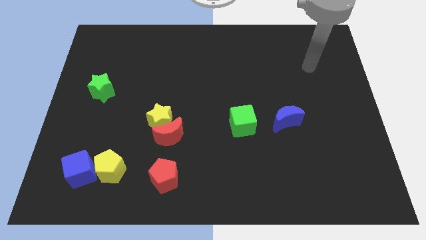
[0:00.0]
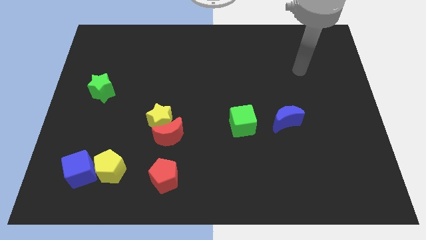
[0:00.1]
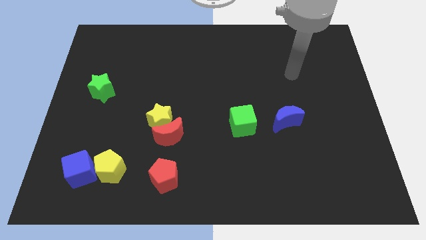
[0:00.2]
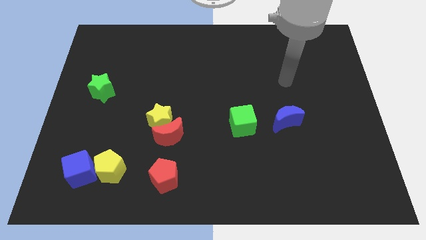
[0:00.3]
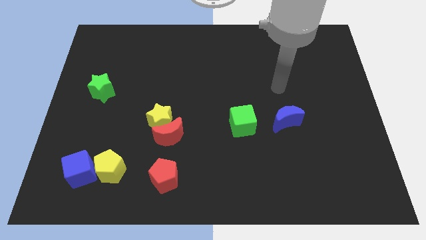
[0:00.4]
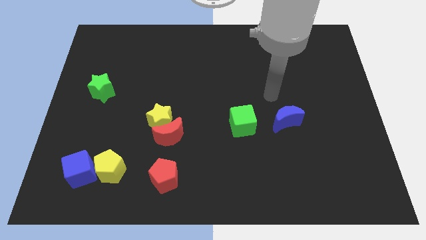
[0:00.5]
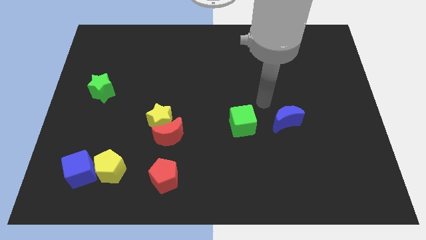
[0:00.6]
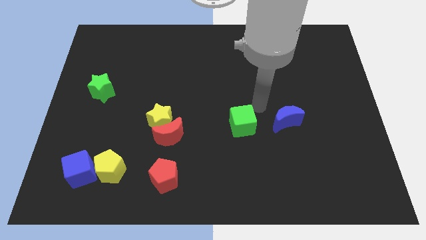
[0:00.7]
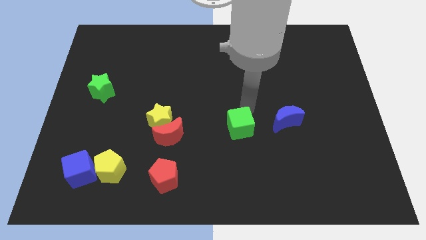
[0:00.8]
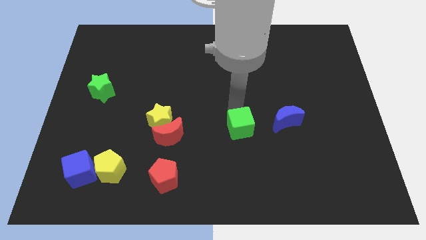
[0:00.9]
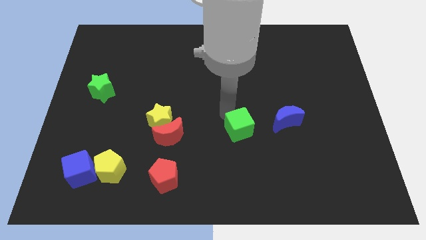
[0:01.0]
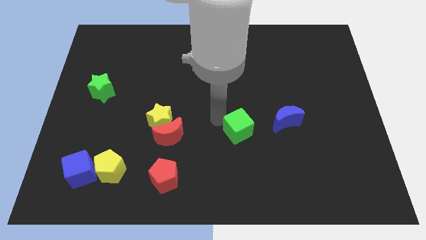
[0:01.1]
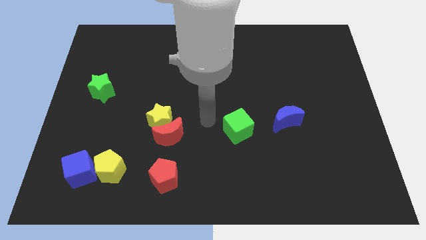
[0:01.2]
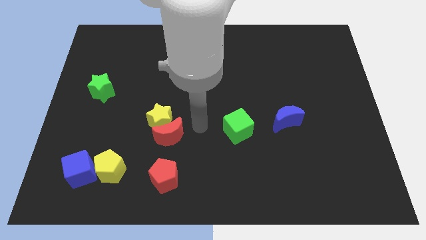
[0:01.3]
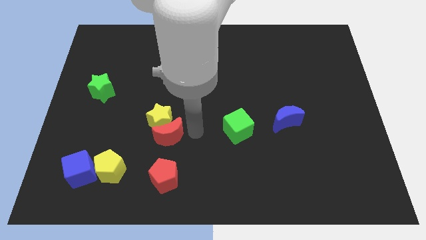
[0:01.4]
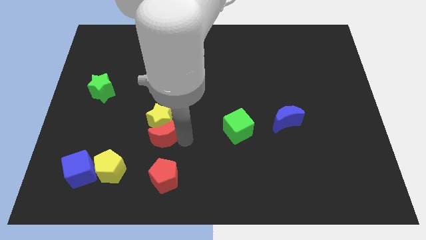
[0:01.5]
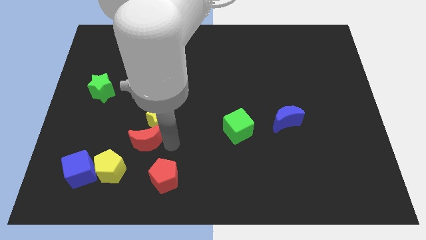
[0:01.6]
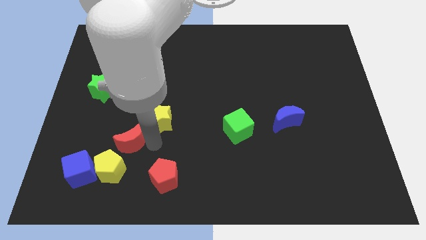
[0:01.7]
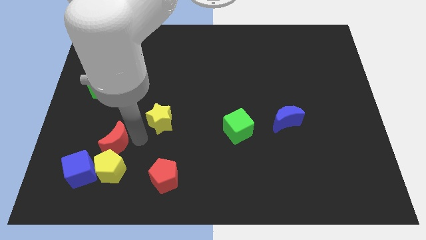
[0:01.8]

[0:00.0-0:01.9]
move the yellow star away from the red moon

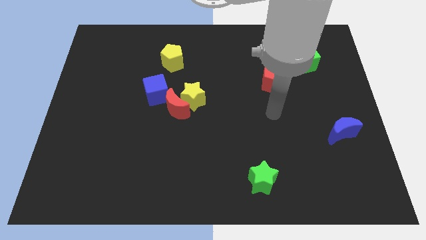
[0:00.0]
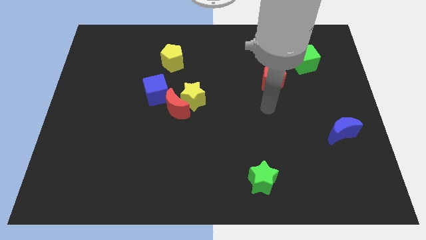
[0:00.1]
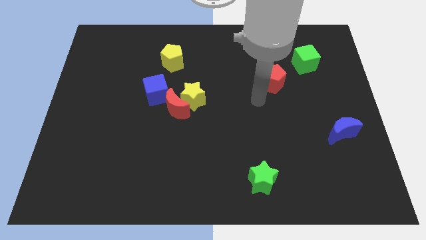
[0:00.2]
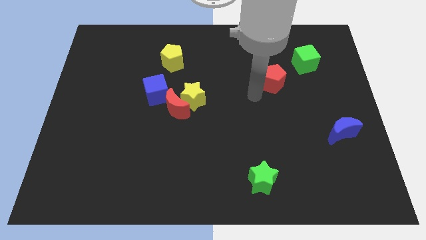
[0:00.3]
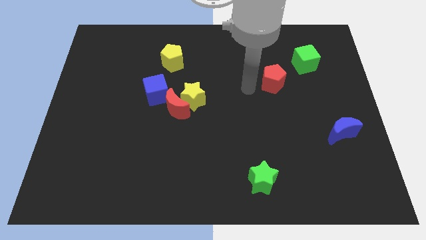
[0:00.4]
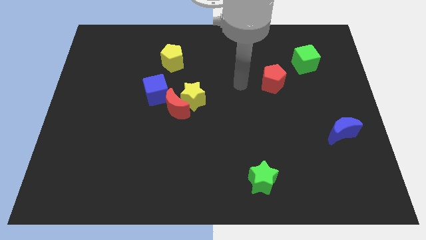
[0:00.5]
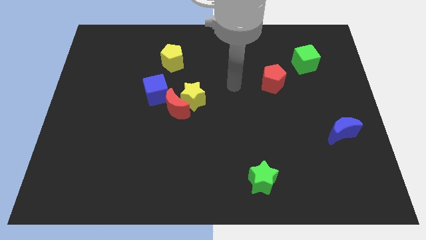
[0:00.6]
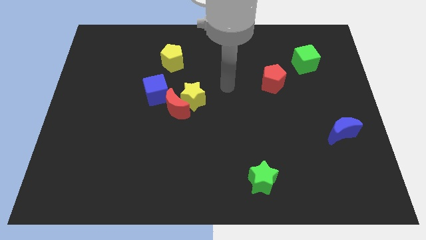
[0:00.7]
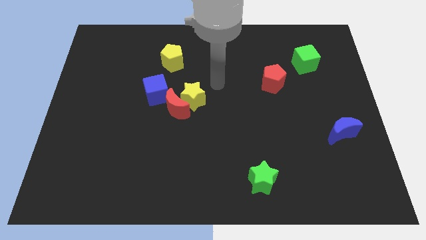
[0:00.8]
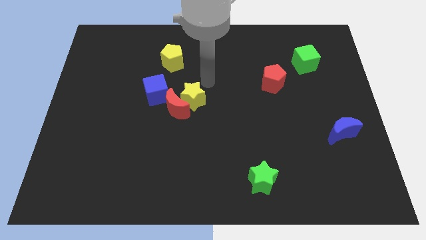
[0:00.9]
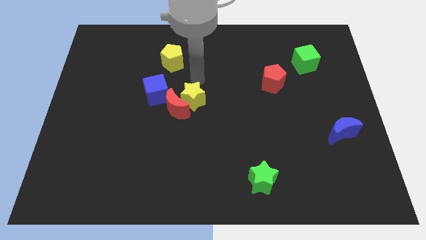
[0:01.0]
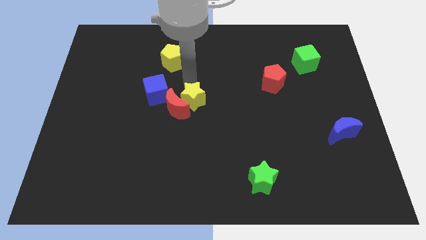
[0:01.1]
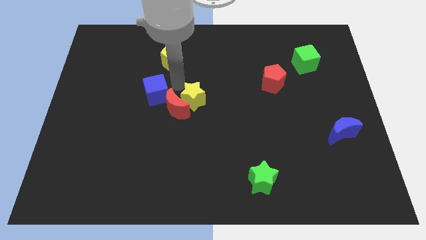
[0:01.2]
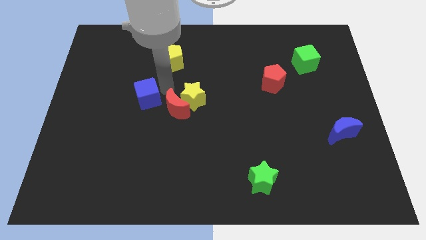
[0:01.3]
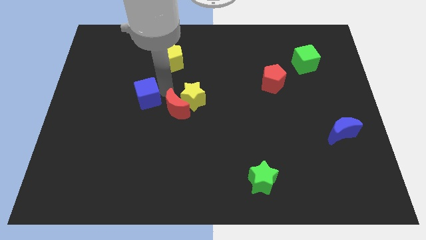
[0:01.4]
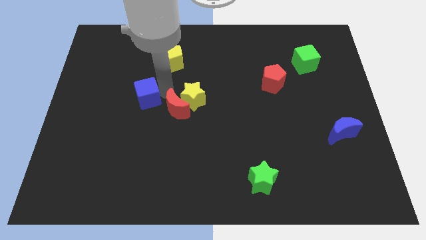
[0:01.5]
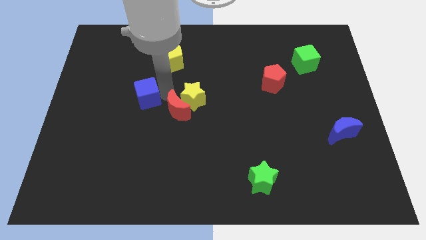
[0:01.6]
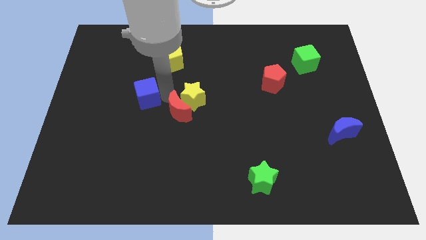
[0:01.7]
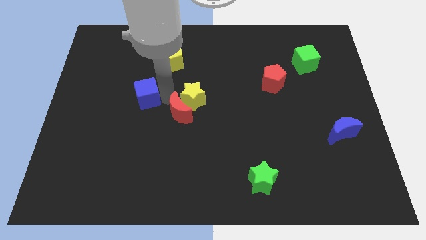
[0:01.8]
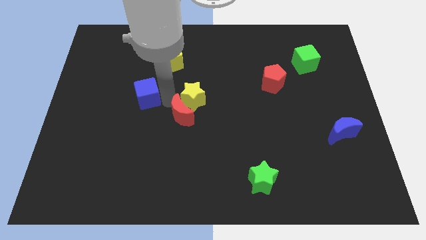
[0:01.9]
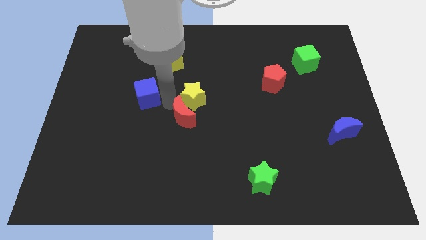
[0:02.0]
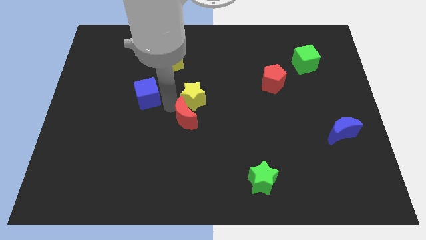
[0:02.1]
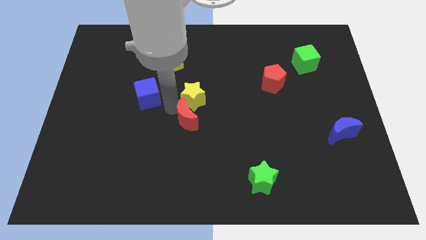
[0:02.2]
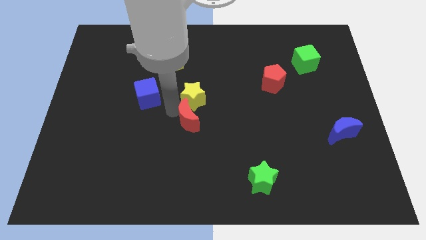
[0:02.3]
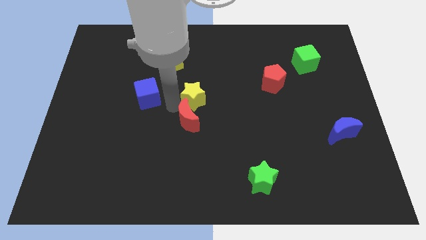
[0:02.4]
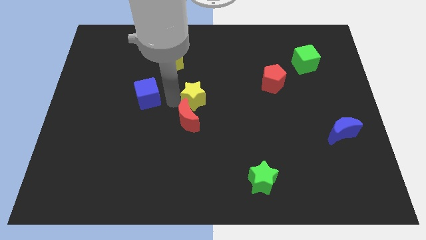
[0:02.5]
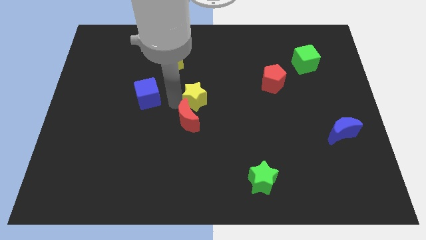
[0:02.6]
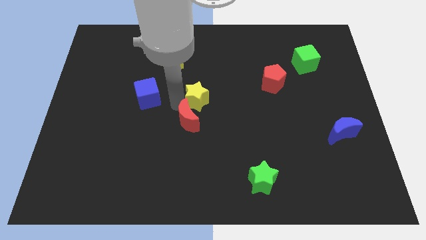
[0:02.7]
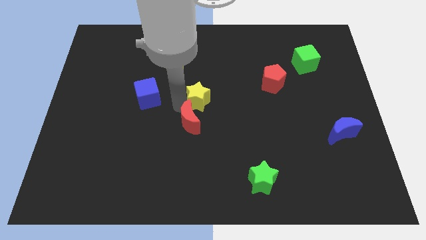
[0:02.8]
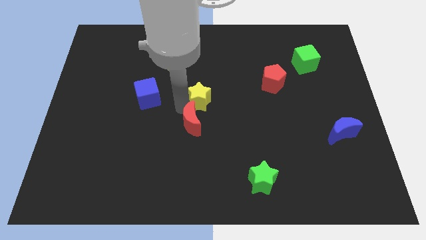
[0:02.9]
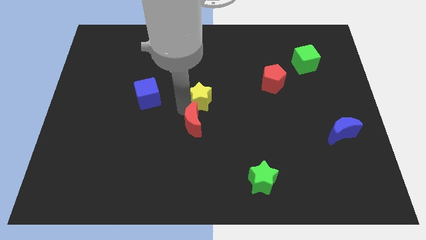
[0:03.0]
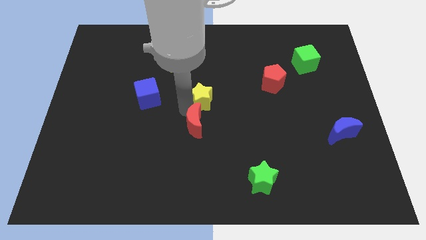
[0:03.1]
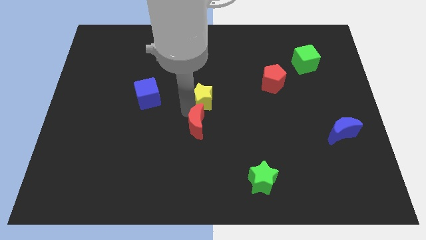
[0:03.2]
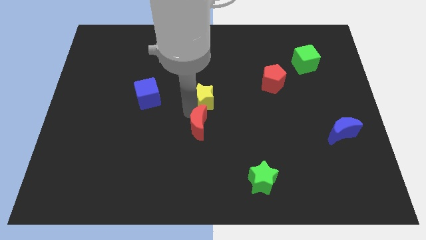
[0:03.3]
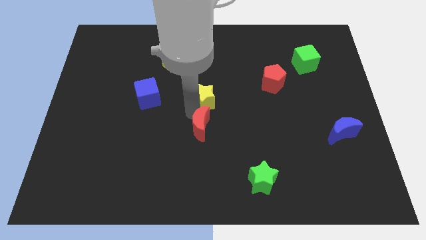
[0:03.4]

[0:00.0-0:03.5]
pull the red moon apart from the yellow star and blue cube

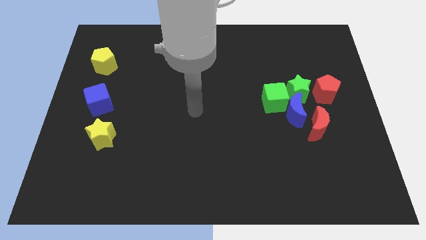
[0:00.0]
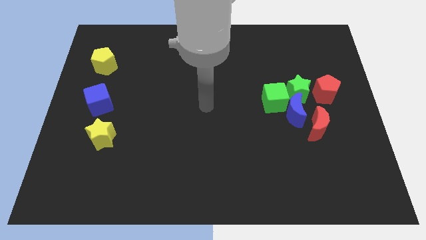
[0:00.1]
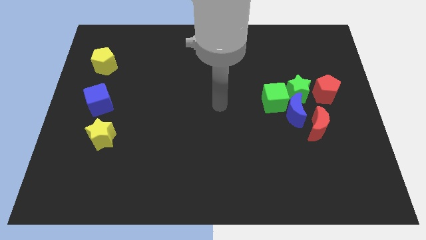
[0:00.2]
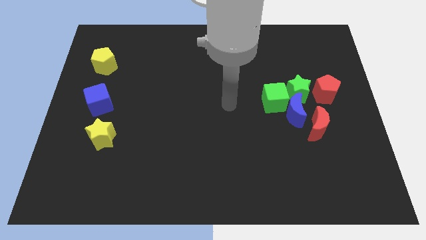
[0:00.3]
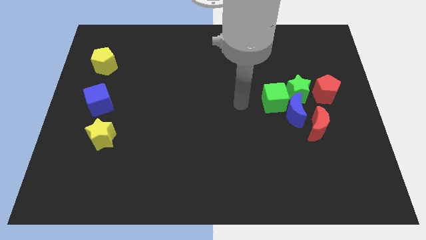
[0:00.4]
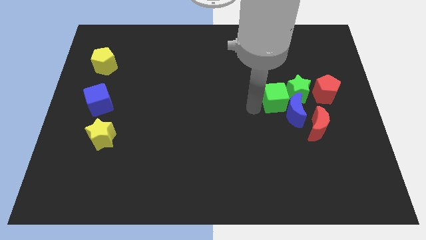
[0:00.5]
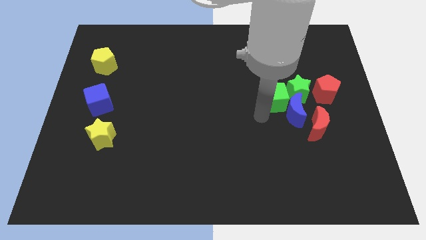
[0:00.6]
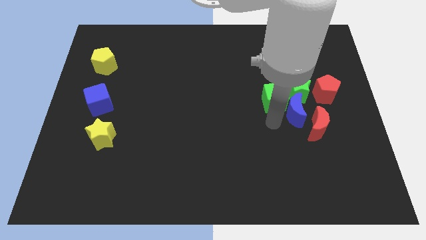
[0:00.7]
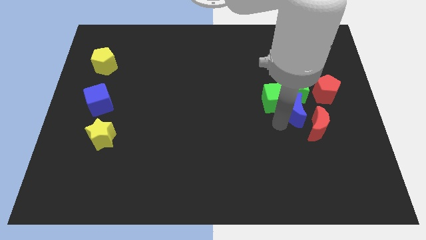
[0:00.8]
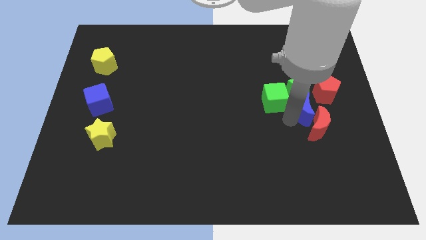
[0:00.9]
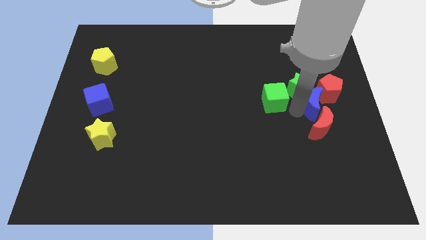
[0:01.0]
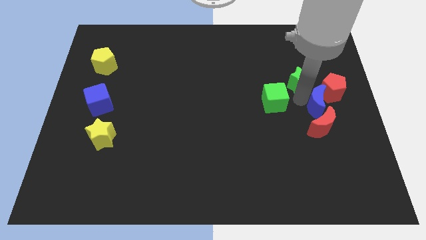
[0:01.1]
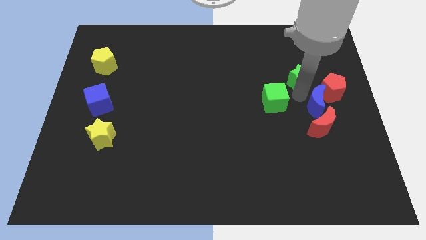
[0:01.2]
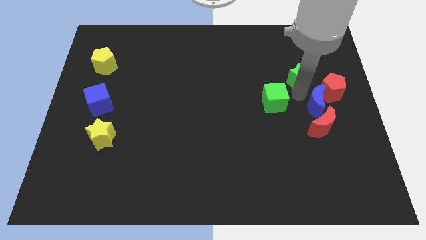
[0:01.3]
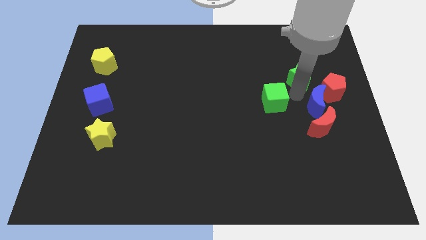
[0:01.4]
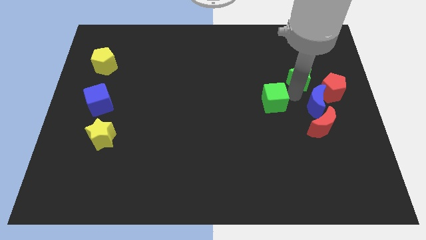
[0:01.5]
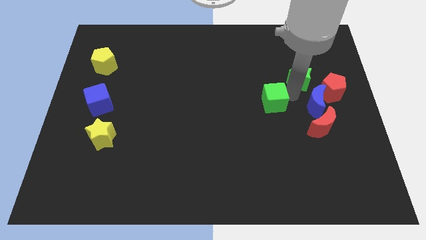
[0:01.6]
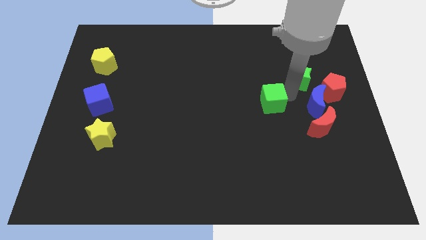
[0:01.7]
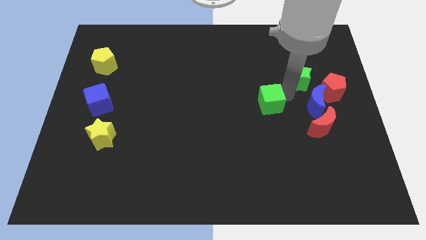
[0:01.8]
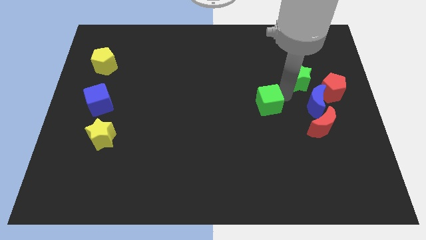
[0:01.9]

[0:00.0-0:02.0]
separate the green cube from the blue moon and green star

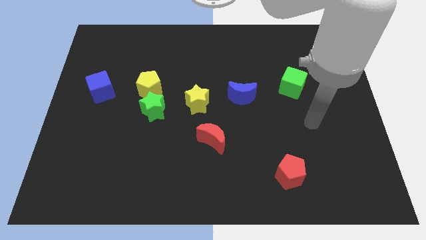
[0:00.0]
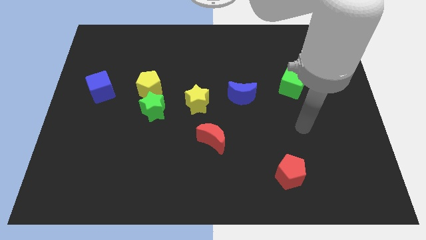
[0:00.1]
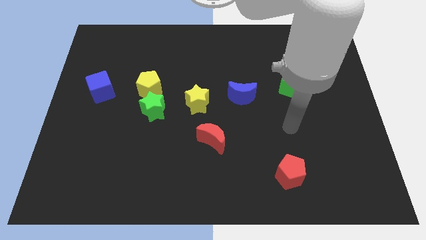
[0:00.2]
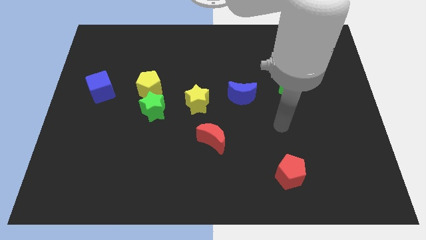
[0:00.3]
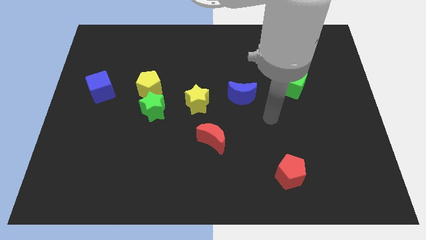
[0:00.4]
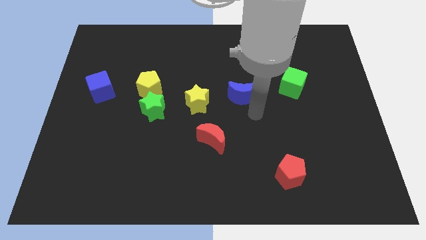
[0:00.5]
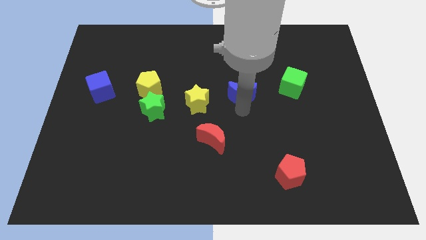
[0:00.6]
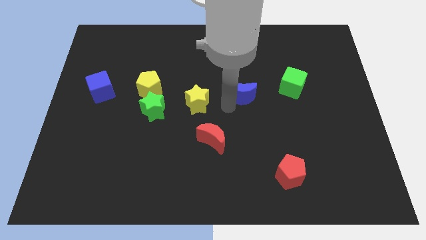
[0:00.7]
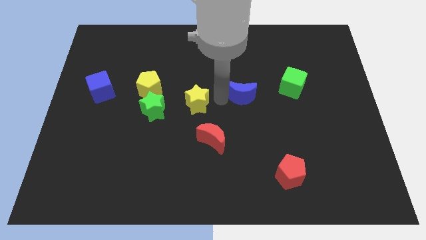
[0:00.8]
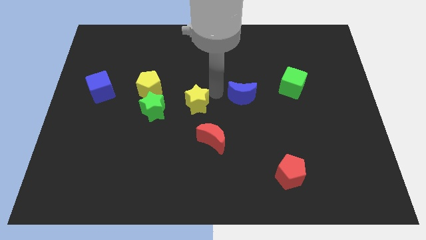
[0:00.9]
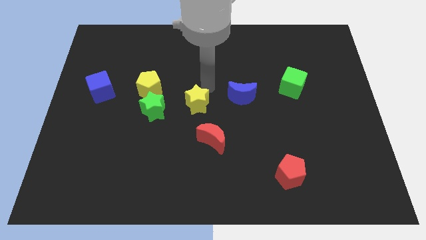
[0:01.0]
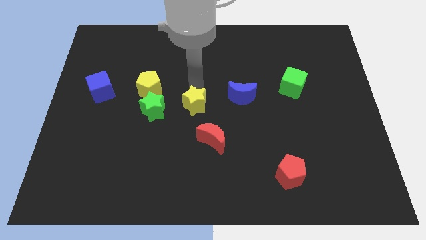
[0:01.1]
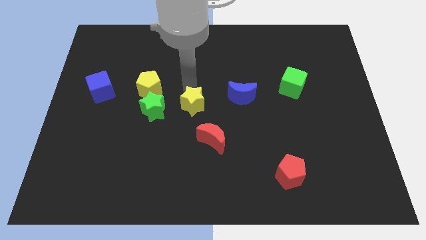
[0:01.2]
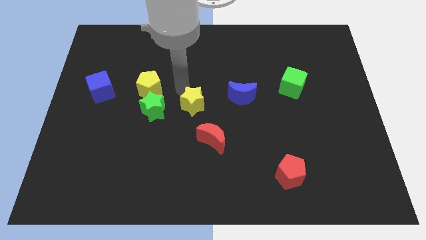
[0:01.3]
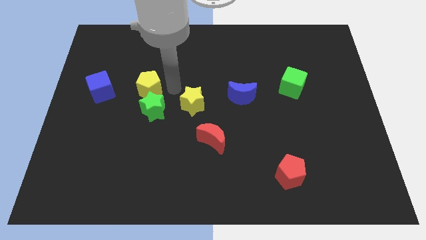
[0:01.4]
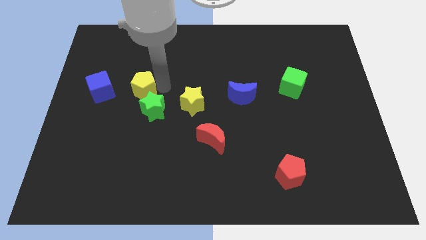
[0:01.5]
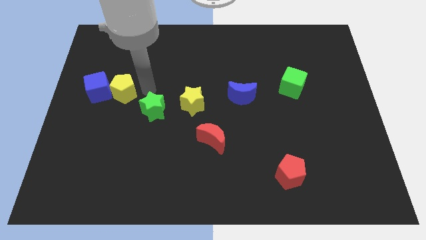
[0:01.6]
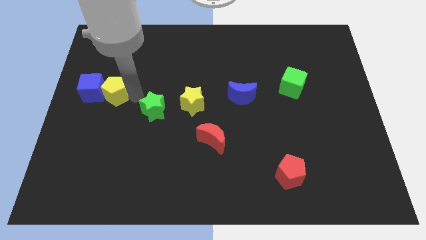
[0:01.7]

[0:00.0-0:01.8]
pull the green star apart from the yellow pentagon
